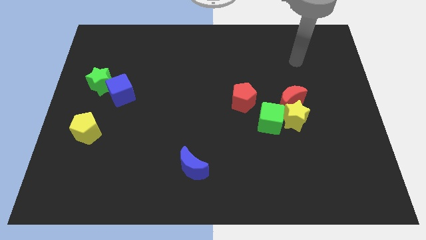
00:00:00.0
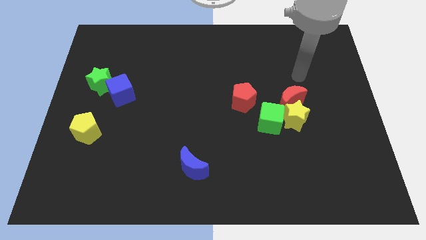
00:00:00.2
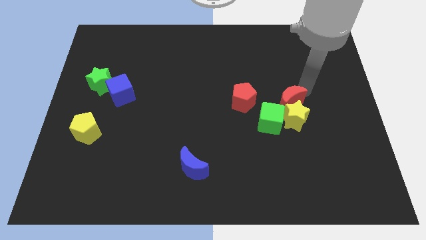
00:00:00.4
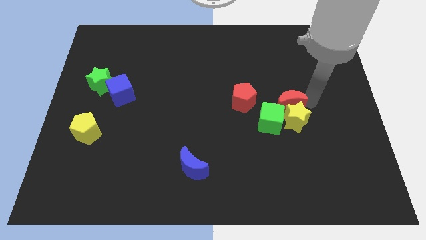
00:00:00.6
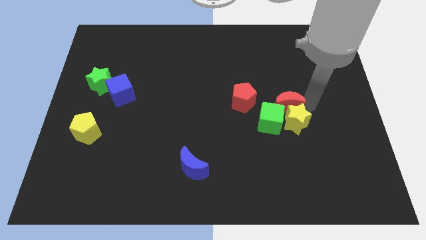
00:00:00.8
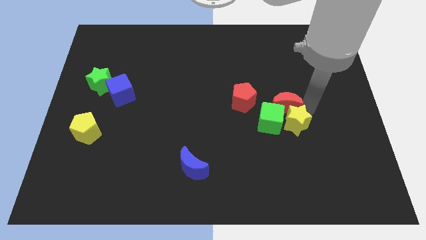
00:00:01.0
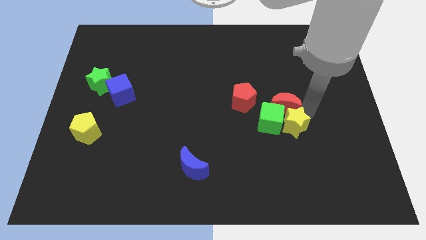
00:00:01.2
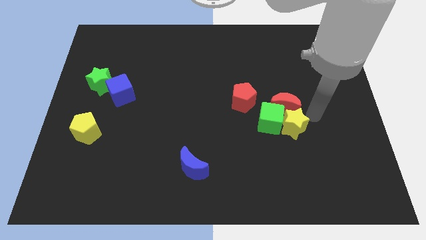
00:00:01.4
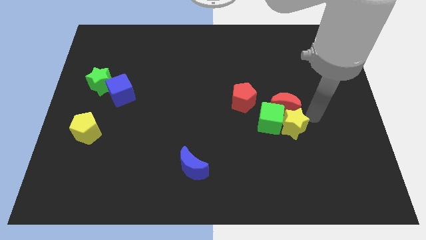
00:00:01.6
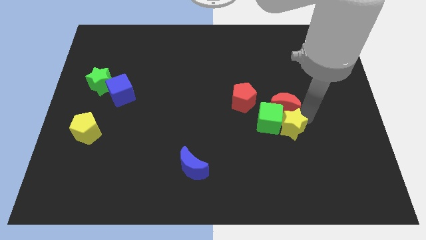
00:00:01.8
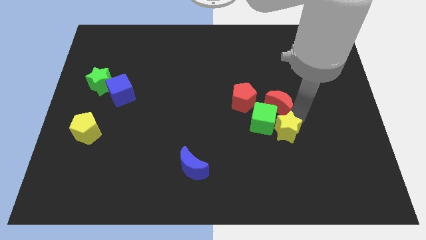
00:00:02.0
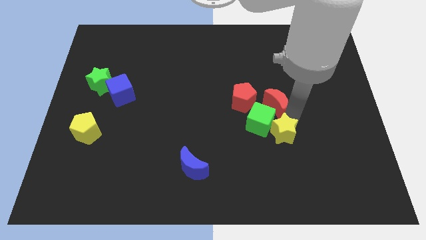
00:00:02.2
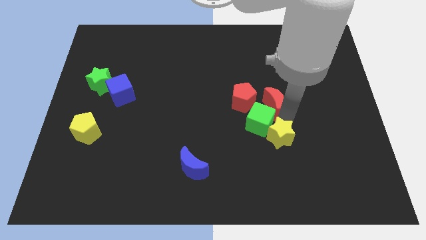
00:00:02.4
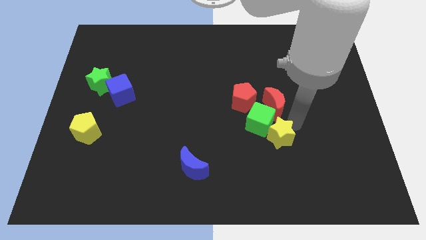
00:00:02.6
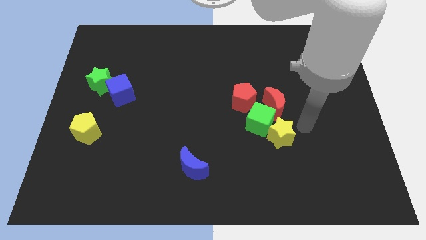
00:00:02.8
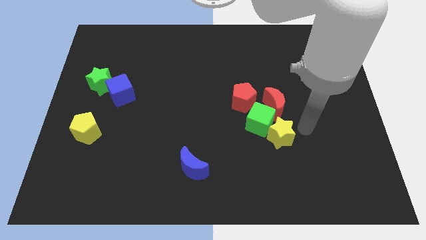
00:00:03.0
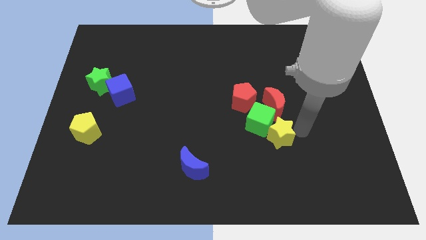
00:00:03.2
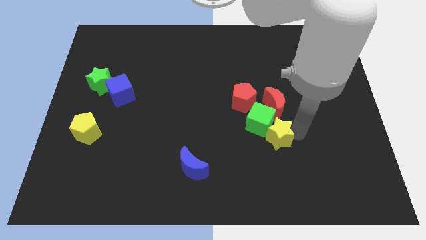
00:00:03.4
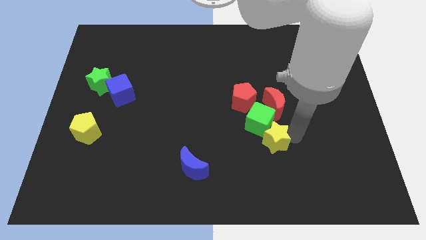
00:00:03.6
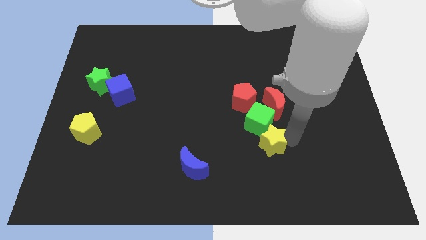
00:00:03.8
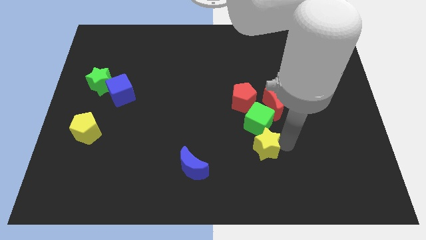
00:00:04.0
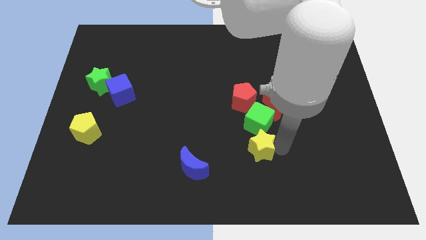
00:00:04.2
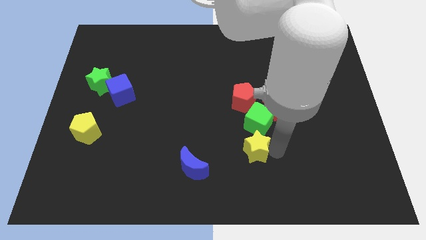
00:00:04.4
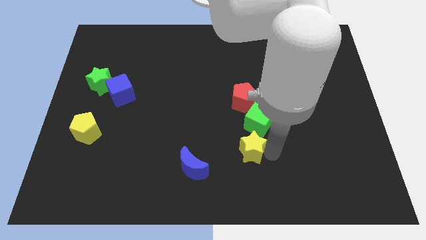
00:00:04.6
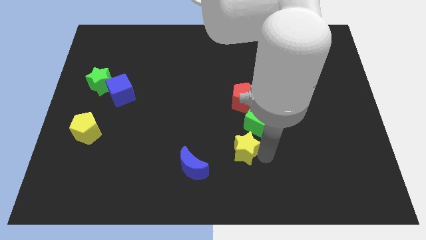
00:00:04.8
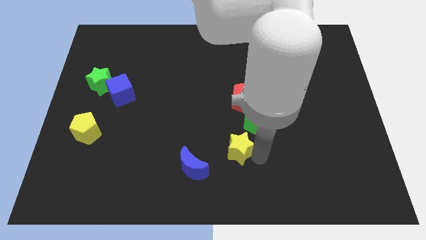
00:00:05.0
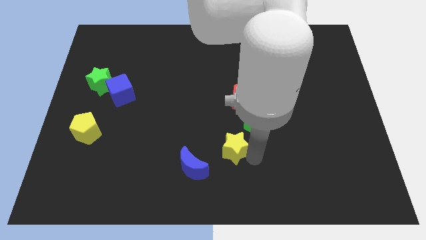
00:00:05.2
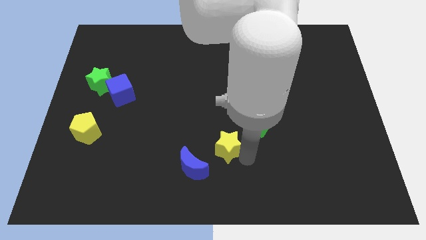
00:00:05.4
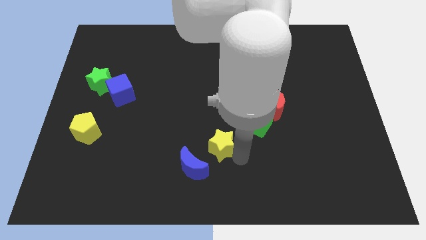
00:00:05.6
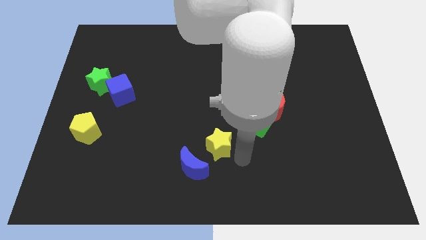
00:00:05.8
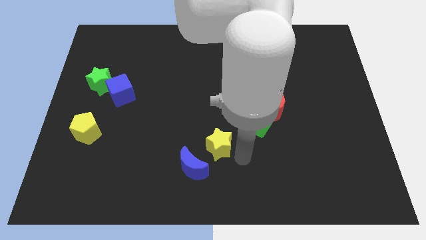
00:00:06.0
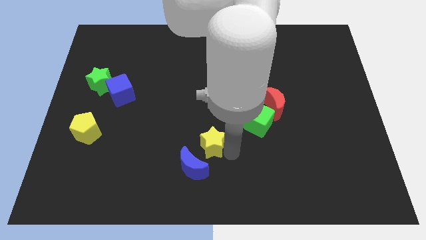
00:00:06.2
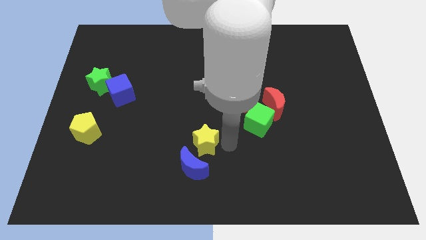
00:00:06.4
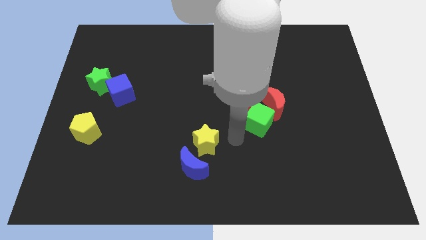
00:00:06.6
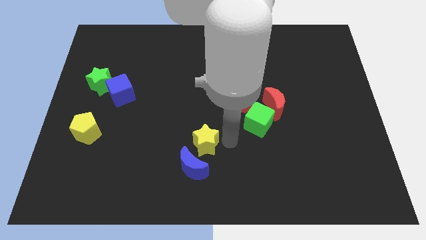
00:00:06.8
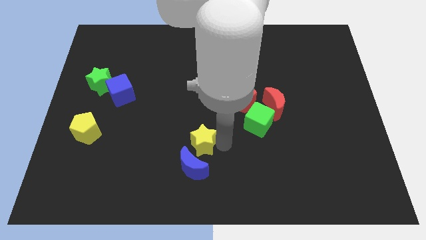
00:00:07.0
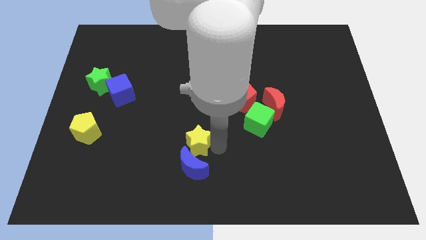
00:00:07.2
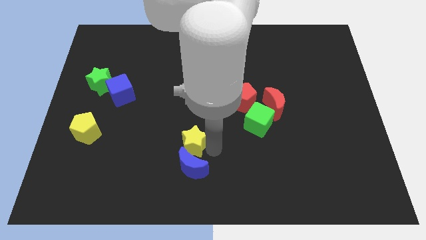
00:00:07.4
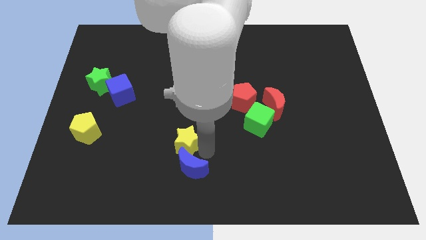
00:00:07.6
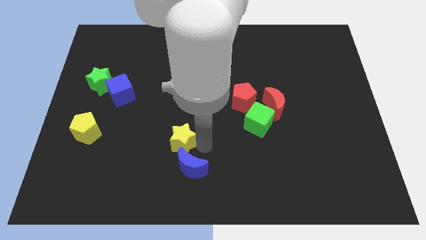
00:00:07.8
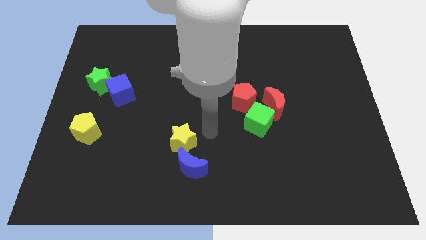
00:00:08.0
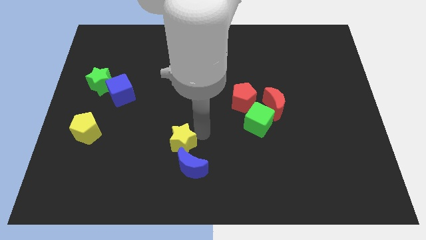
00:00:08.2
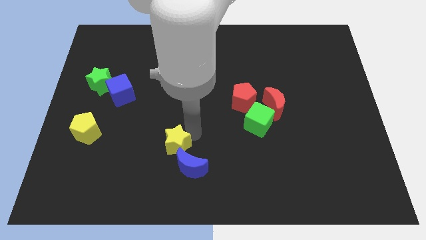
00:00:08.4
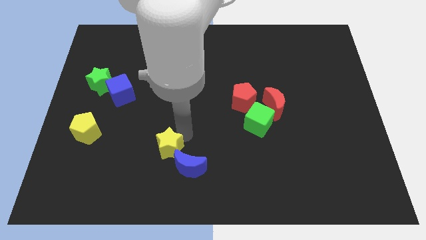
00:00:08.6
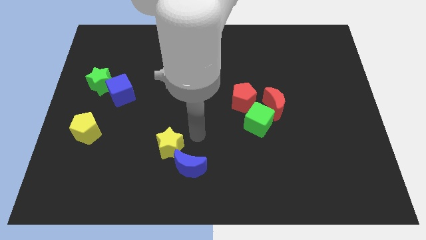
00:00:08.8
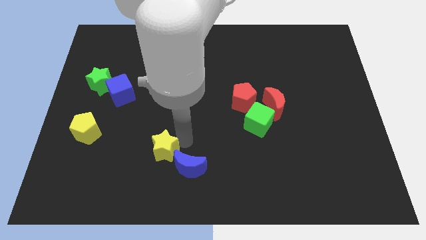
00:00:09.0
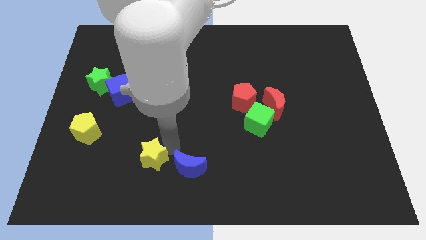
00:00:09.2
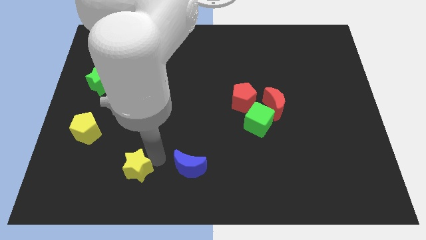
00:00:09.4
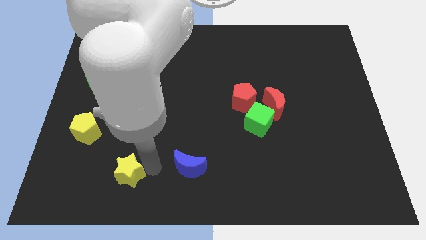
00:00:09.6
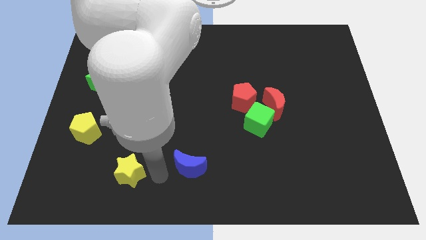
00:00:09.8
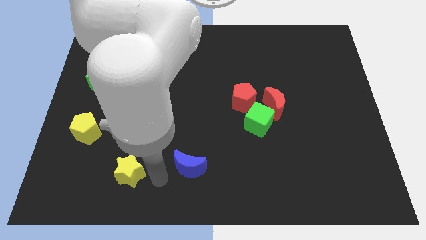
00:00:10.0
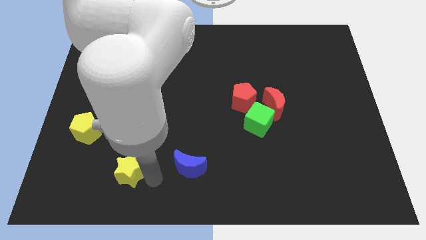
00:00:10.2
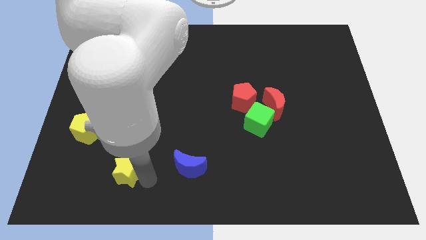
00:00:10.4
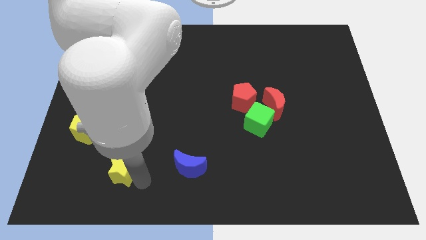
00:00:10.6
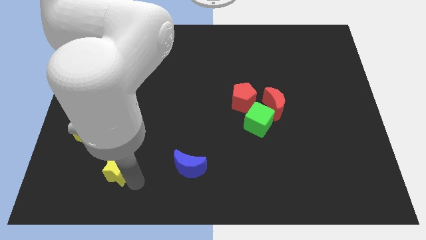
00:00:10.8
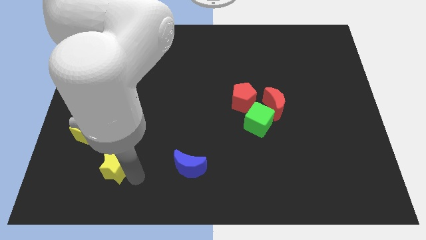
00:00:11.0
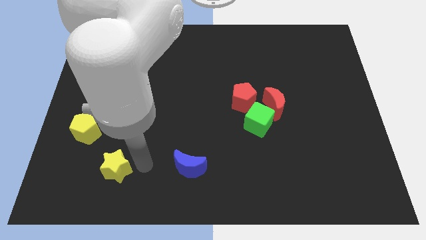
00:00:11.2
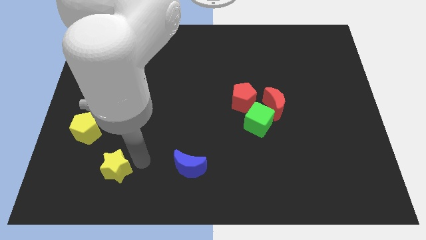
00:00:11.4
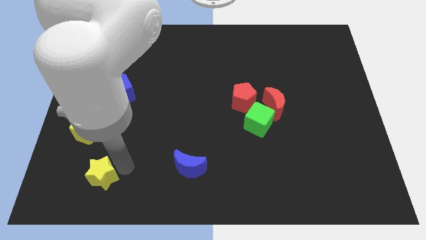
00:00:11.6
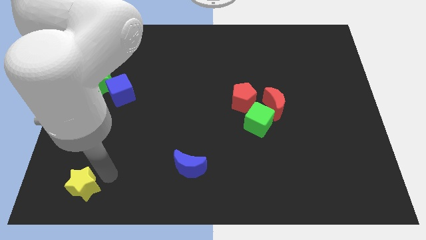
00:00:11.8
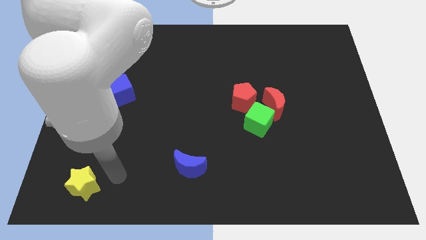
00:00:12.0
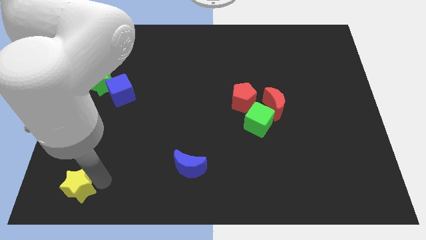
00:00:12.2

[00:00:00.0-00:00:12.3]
put the yellow star to the lower left corner
